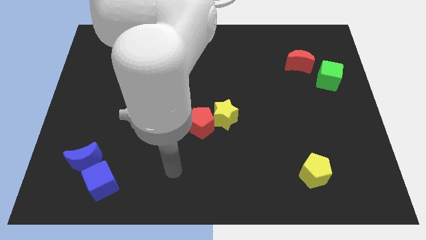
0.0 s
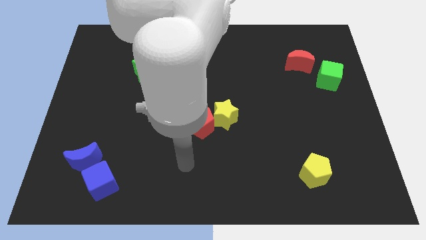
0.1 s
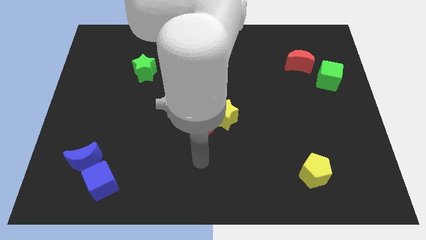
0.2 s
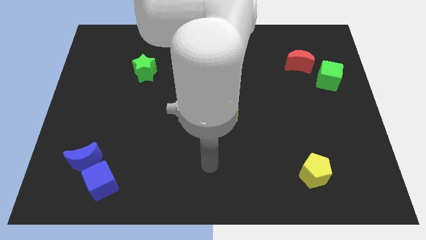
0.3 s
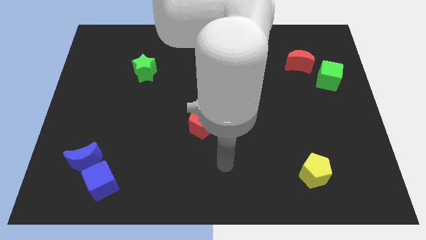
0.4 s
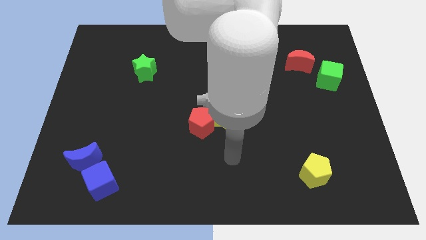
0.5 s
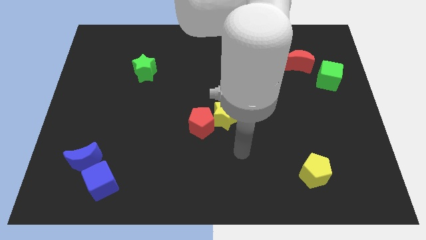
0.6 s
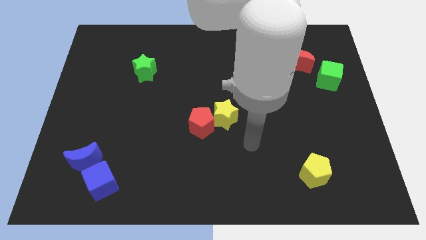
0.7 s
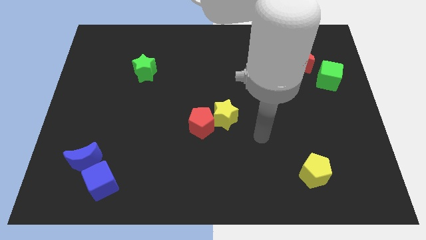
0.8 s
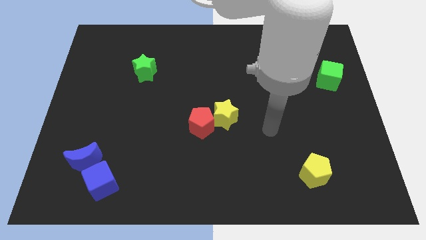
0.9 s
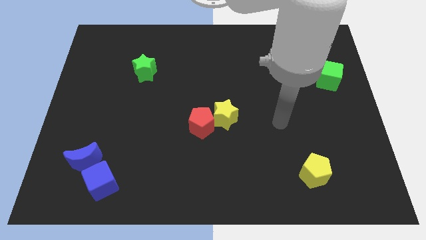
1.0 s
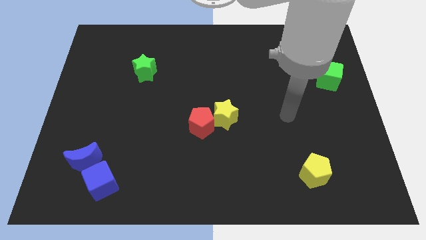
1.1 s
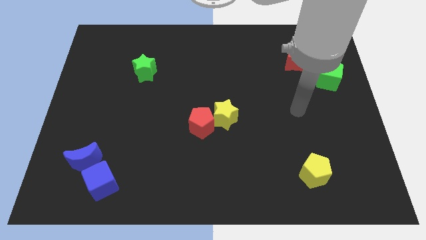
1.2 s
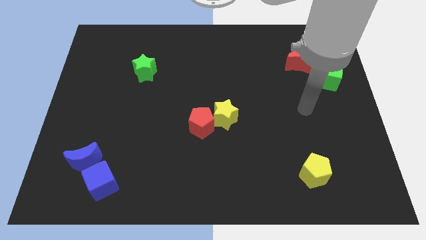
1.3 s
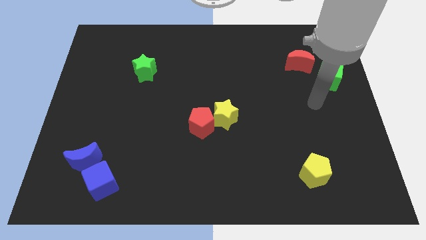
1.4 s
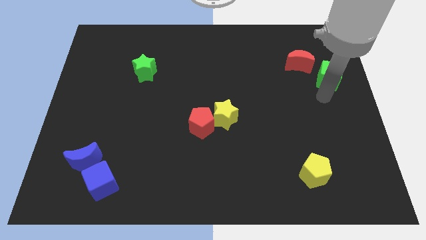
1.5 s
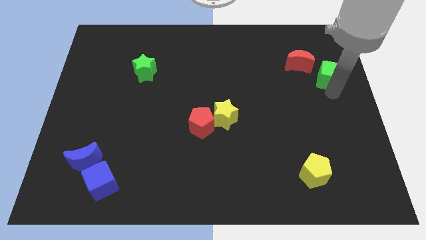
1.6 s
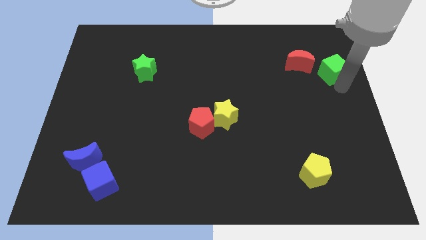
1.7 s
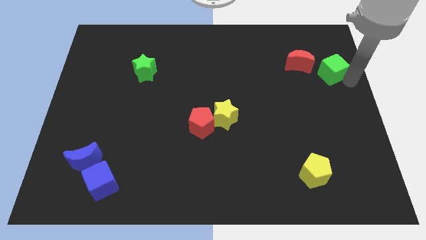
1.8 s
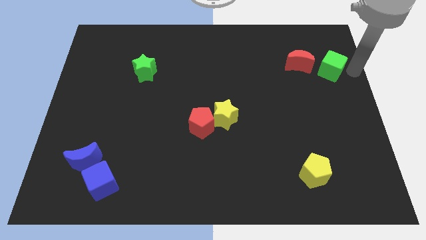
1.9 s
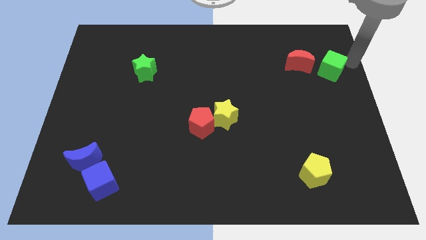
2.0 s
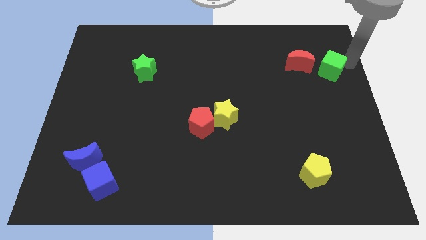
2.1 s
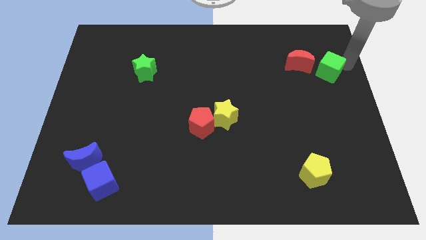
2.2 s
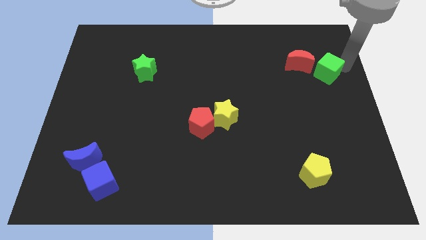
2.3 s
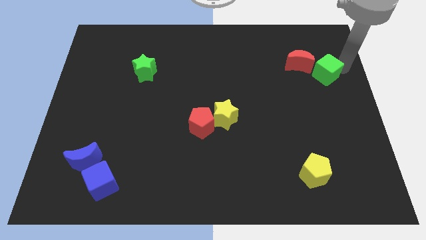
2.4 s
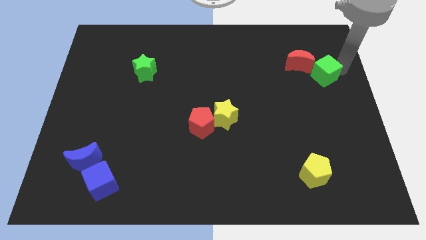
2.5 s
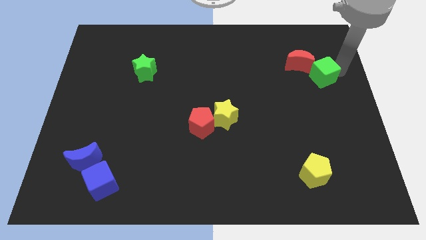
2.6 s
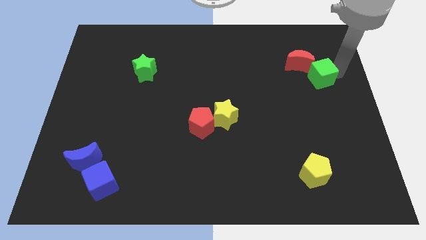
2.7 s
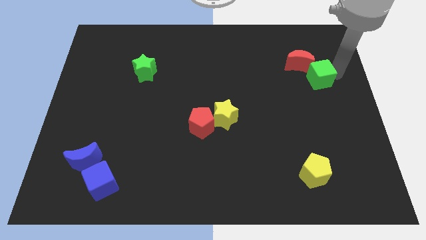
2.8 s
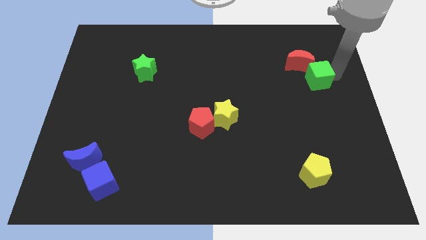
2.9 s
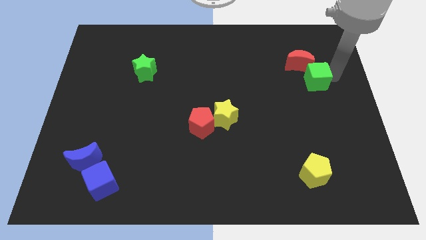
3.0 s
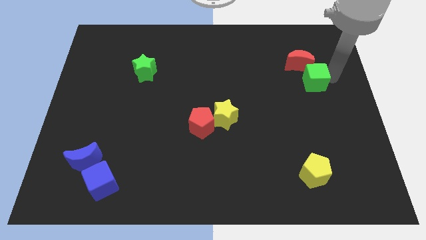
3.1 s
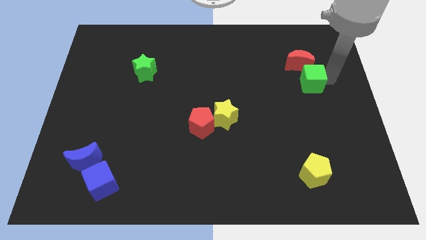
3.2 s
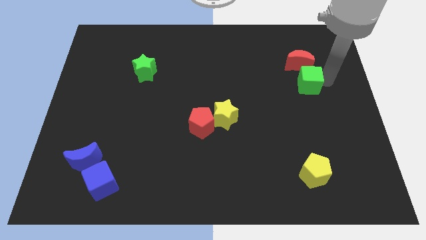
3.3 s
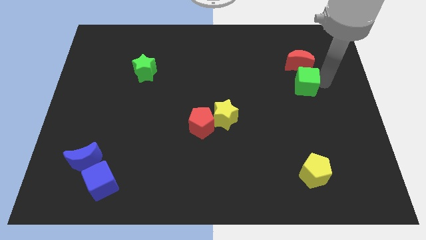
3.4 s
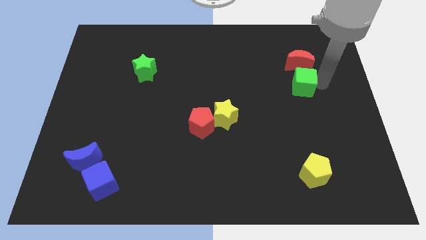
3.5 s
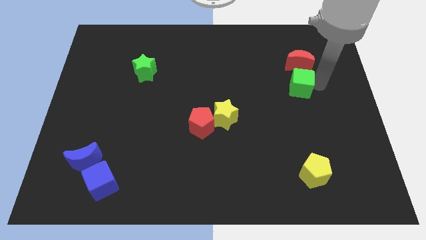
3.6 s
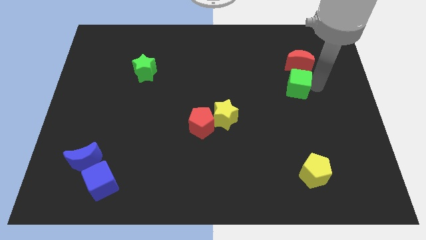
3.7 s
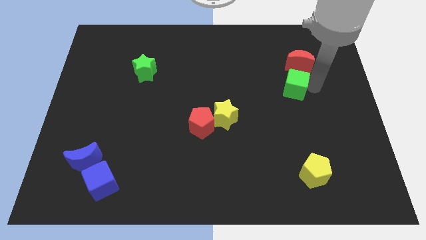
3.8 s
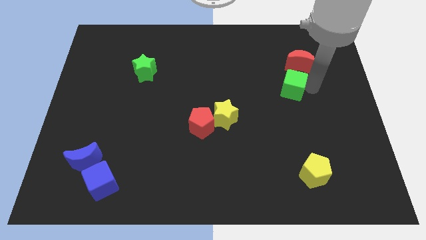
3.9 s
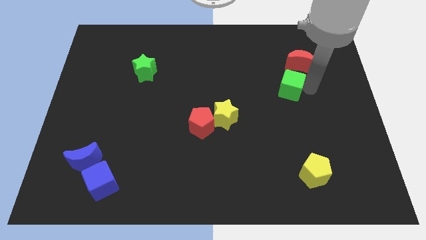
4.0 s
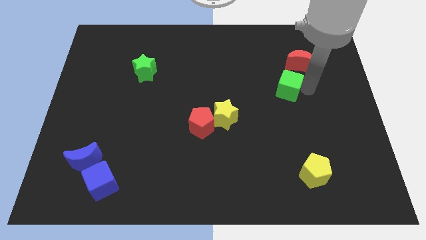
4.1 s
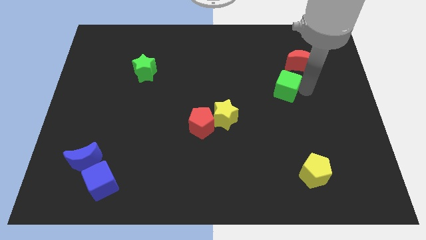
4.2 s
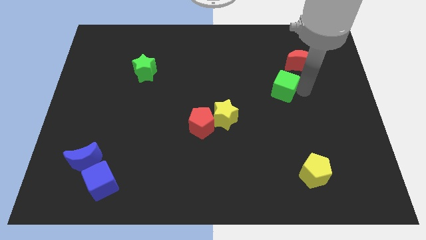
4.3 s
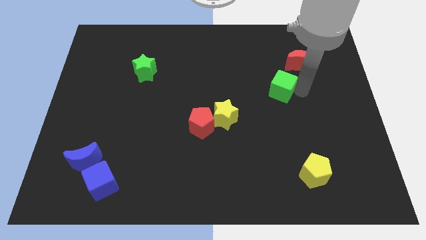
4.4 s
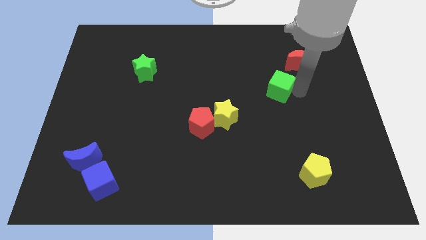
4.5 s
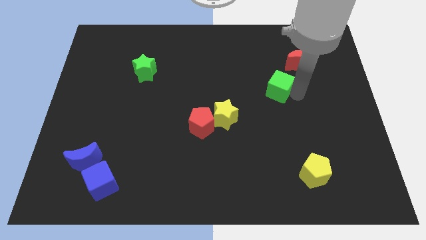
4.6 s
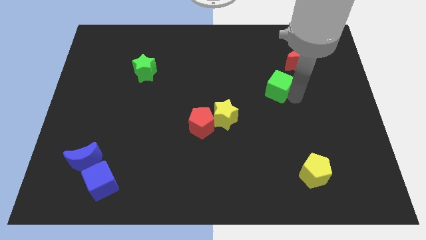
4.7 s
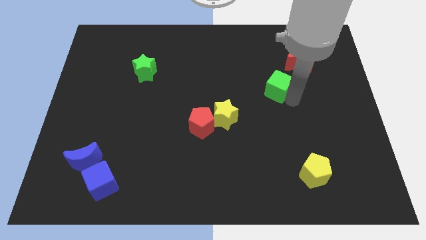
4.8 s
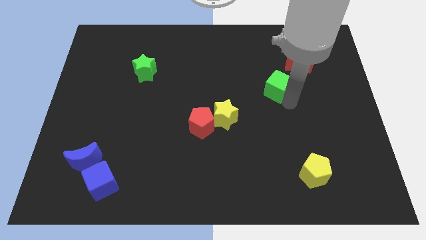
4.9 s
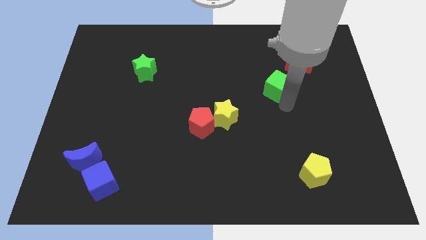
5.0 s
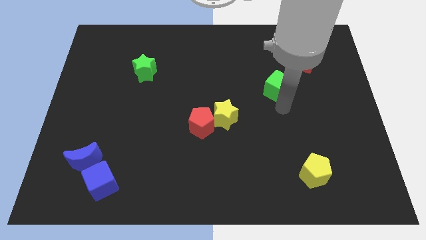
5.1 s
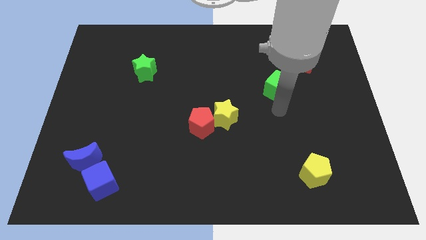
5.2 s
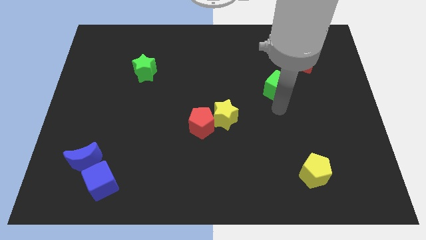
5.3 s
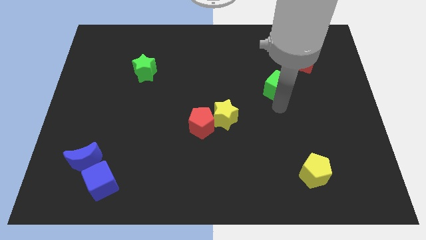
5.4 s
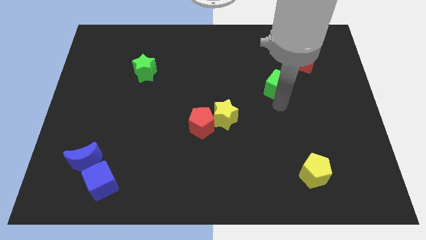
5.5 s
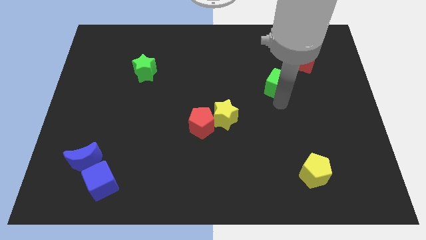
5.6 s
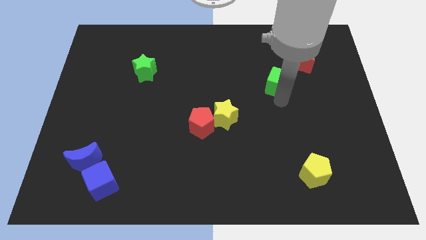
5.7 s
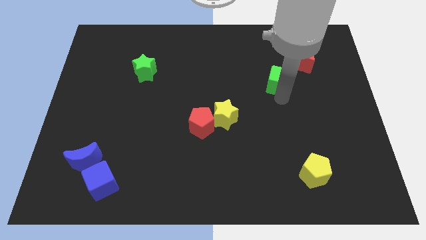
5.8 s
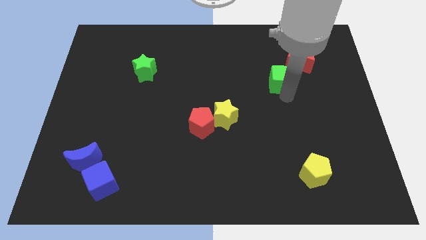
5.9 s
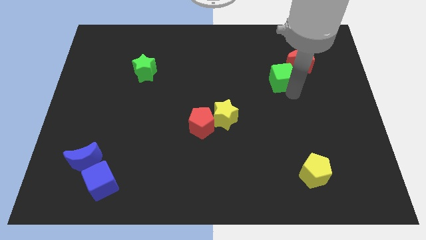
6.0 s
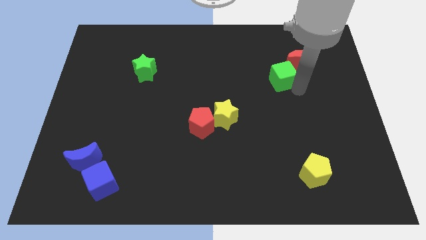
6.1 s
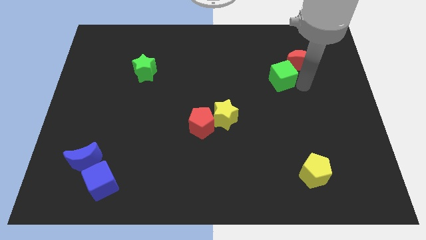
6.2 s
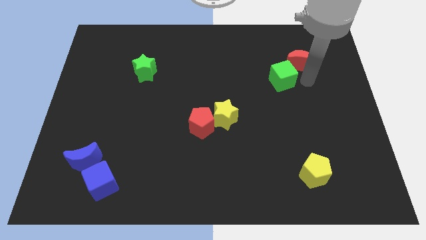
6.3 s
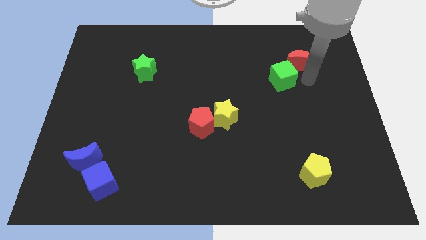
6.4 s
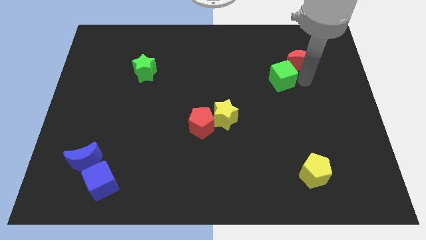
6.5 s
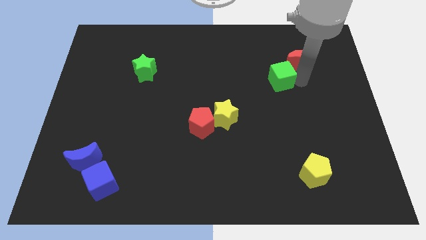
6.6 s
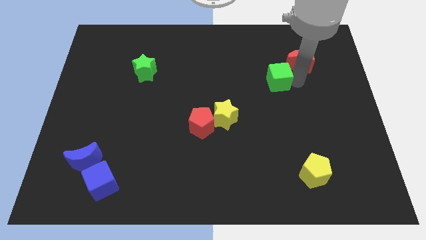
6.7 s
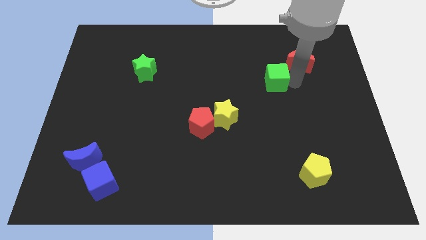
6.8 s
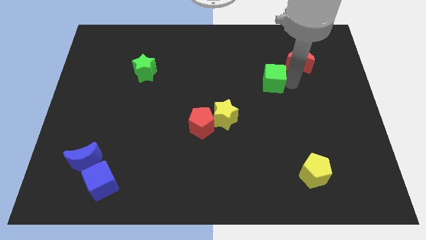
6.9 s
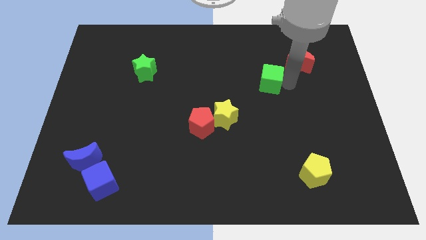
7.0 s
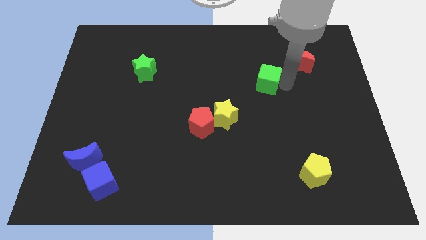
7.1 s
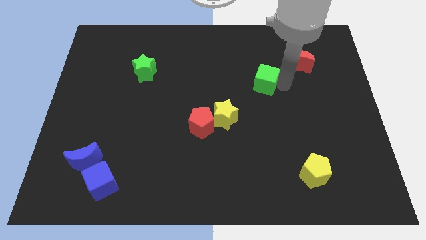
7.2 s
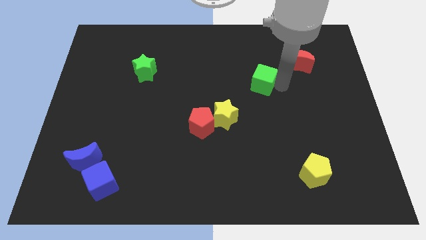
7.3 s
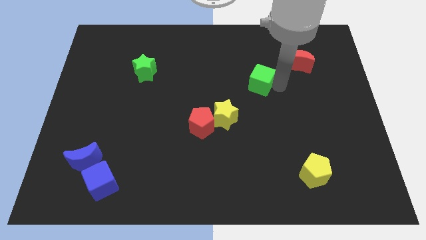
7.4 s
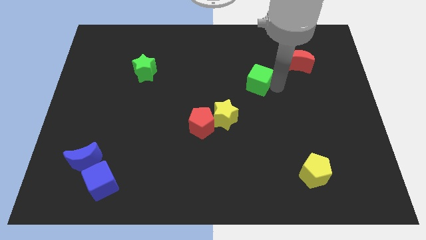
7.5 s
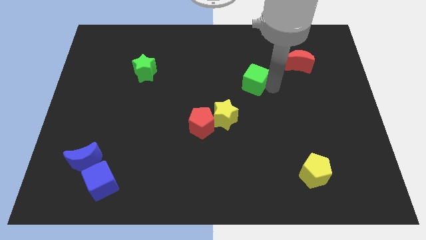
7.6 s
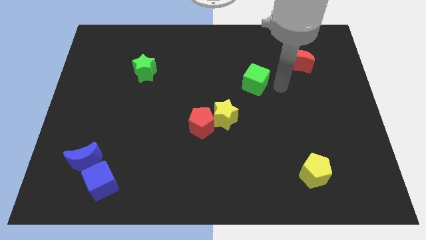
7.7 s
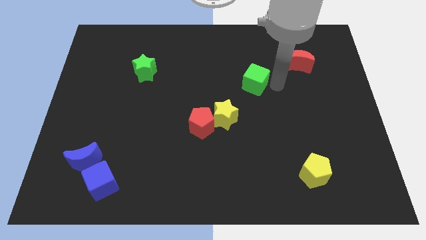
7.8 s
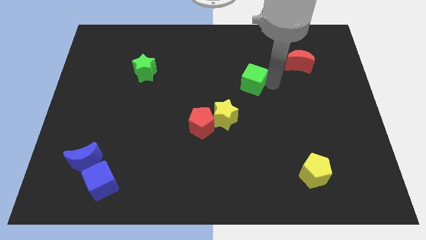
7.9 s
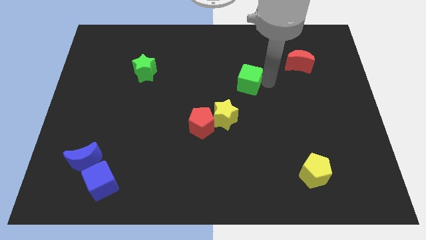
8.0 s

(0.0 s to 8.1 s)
slide the green cube left
